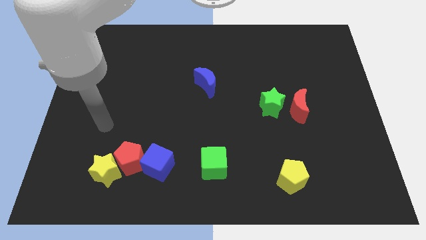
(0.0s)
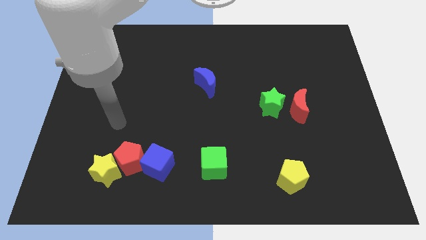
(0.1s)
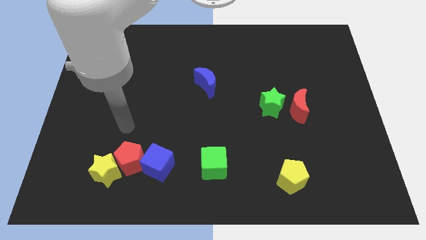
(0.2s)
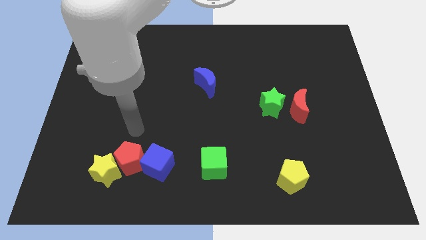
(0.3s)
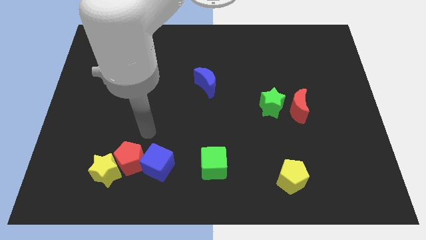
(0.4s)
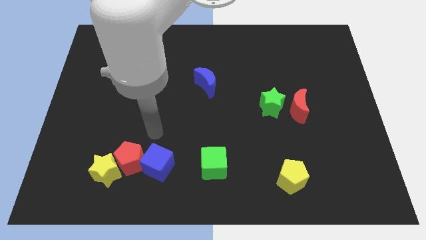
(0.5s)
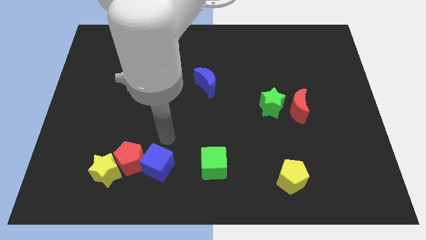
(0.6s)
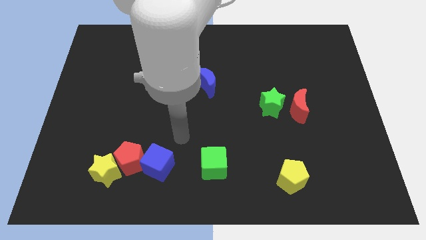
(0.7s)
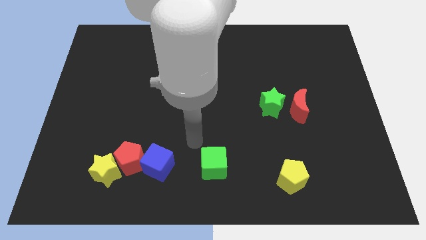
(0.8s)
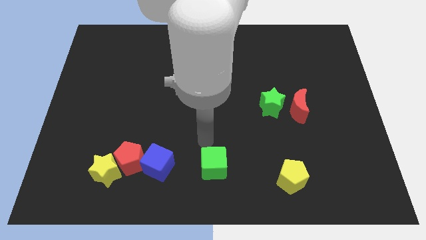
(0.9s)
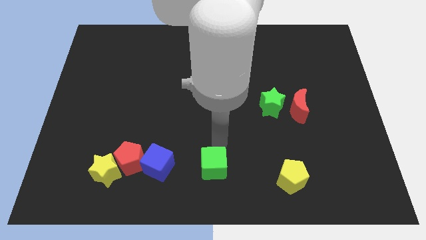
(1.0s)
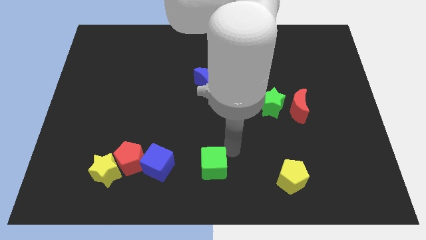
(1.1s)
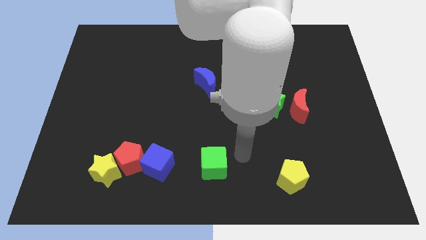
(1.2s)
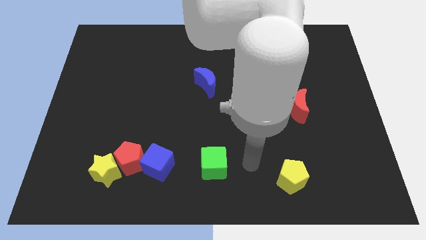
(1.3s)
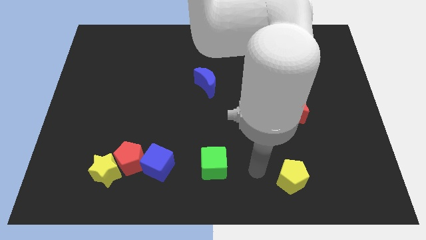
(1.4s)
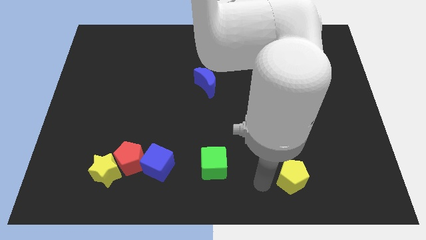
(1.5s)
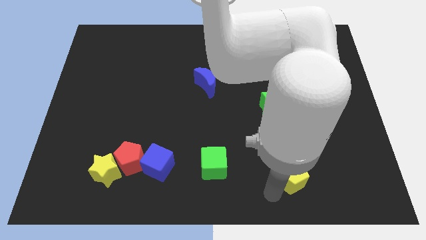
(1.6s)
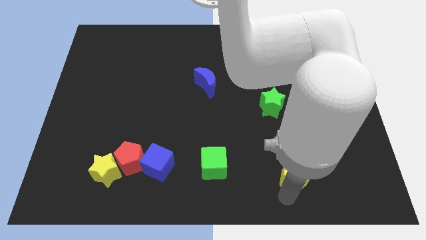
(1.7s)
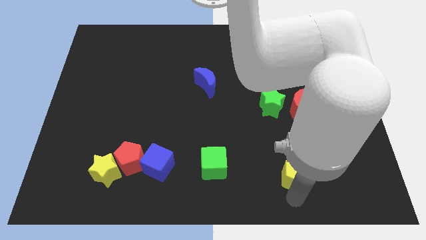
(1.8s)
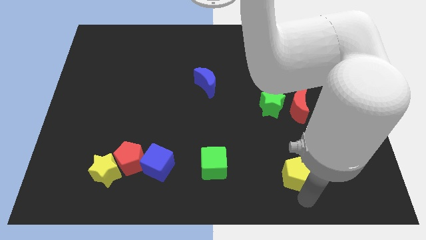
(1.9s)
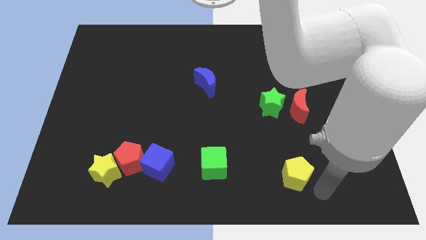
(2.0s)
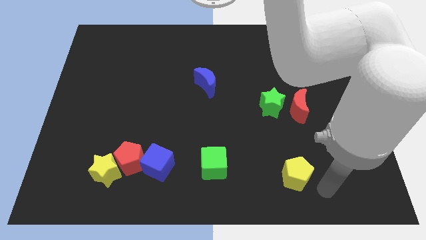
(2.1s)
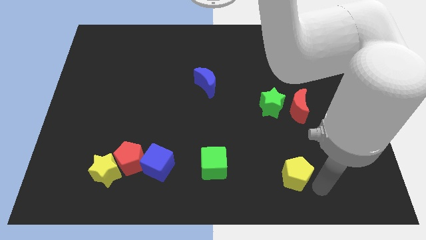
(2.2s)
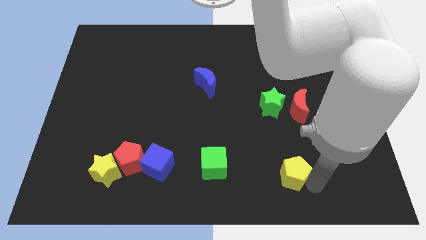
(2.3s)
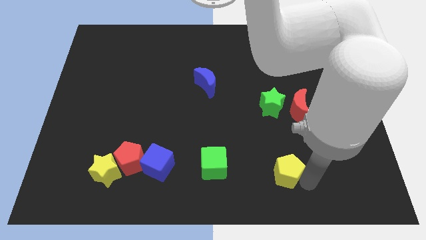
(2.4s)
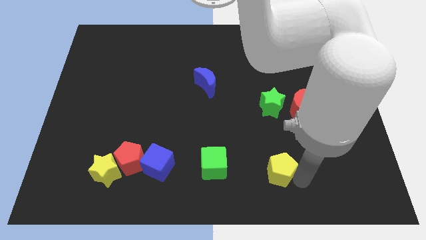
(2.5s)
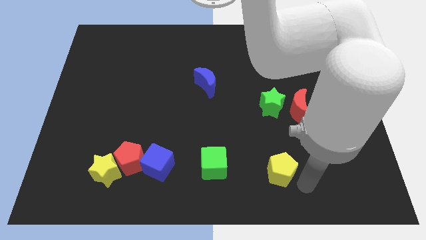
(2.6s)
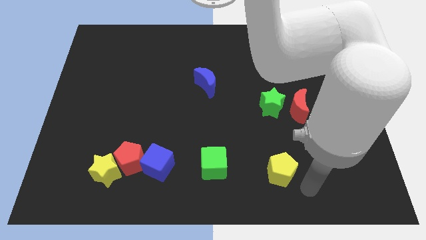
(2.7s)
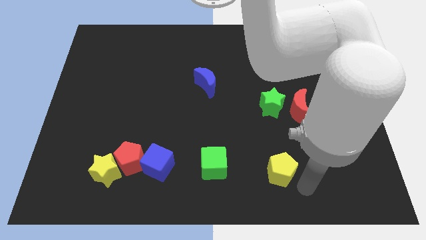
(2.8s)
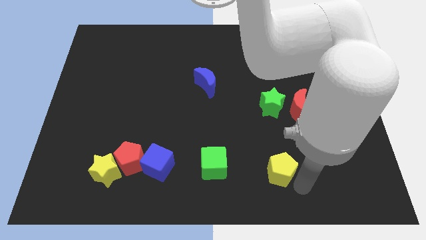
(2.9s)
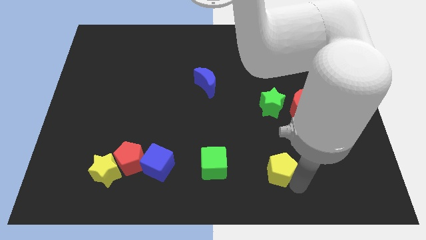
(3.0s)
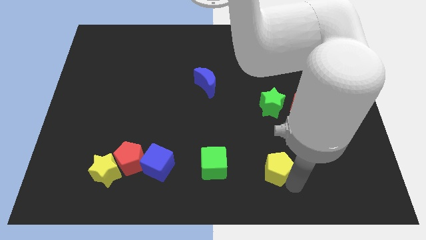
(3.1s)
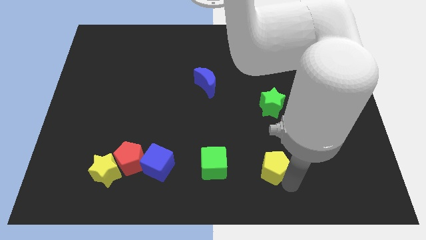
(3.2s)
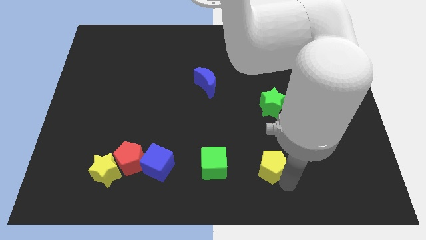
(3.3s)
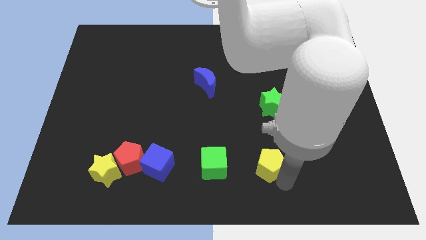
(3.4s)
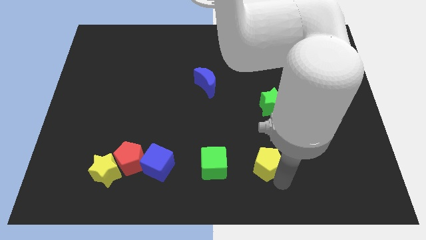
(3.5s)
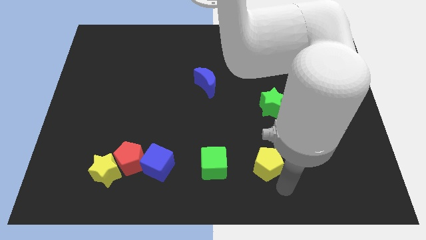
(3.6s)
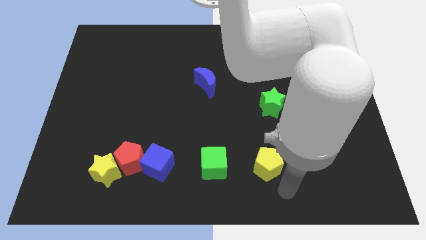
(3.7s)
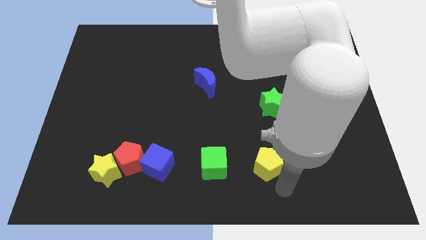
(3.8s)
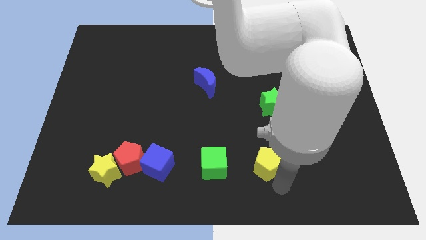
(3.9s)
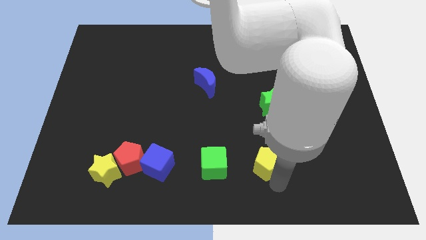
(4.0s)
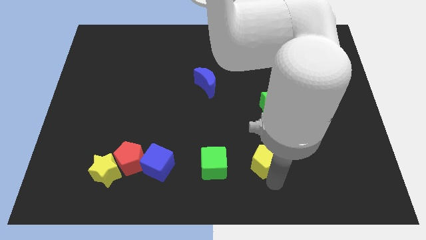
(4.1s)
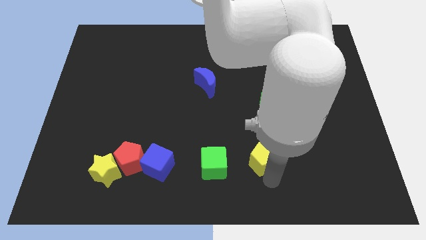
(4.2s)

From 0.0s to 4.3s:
move the yellow pentagon somewhat up and to the left diagonally

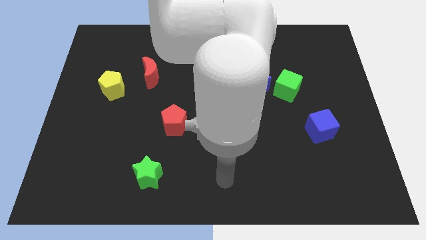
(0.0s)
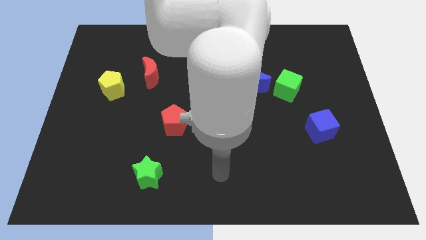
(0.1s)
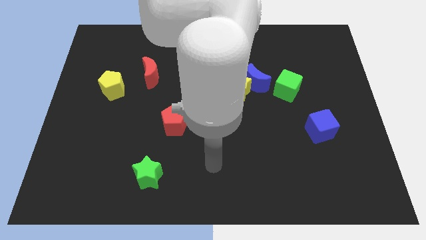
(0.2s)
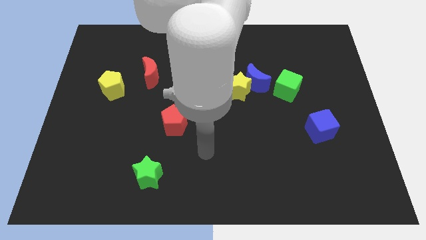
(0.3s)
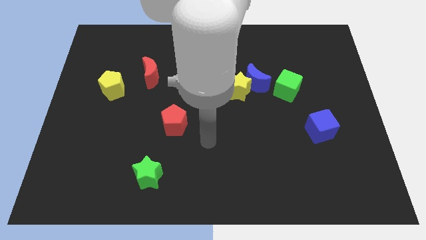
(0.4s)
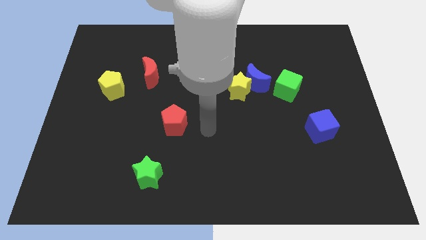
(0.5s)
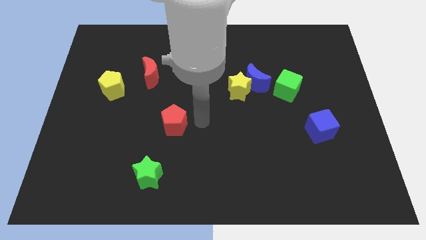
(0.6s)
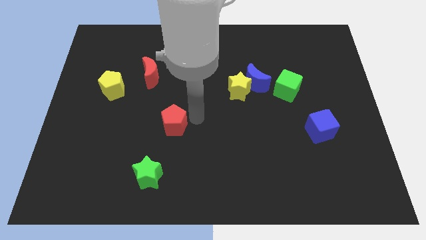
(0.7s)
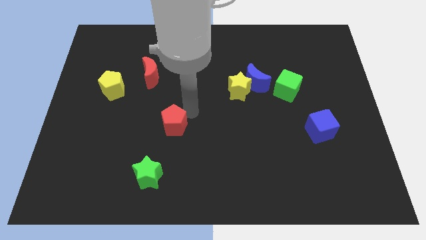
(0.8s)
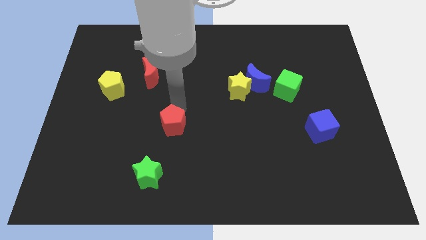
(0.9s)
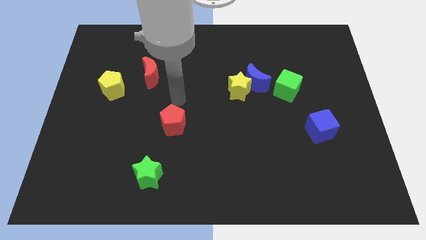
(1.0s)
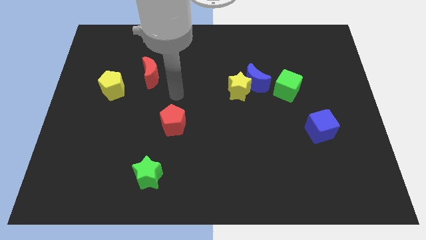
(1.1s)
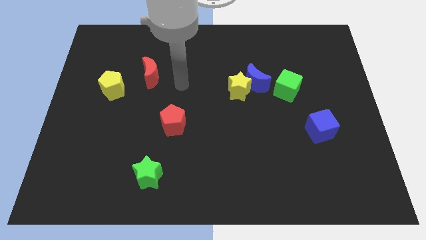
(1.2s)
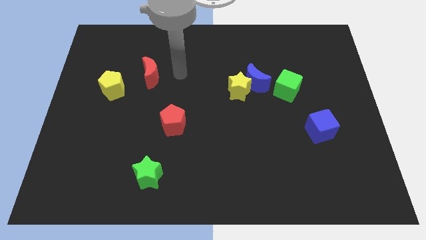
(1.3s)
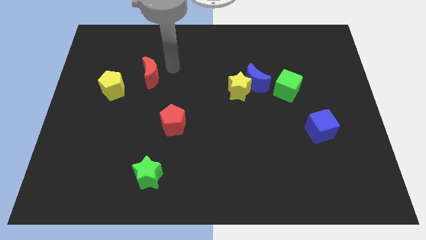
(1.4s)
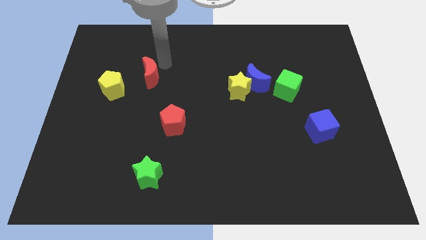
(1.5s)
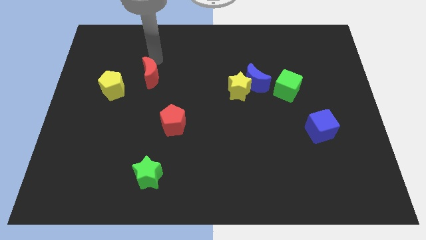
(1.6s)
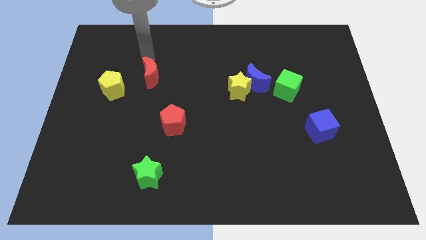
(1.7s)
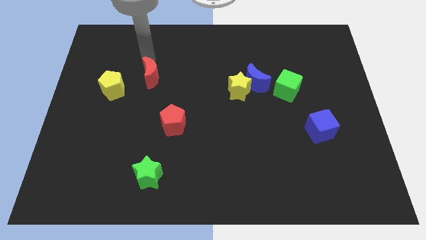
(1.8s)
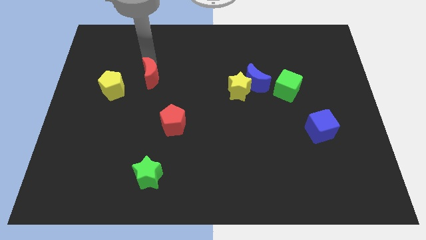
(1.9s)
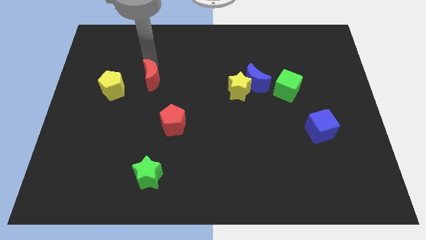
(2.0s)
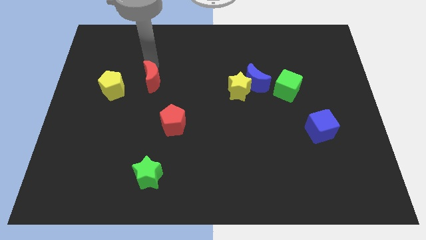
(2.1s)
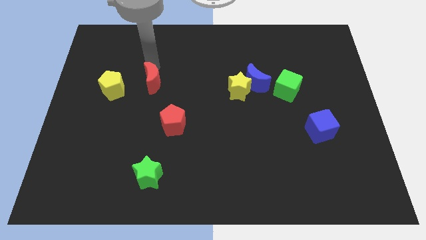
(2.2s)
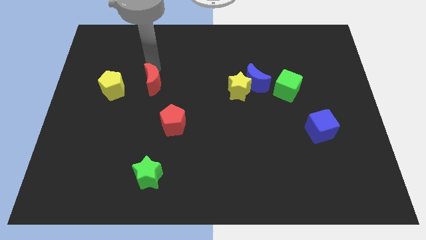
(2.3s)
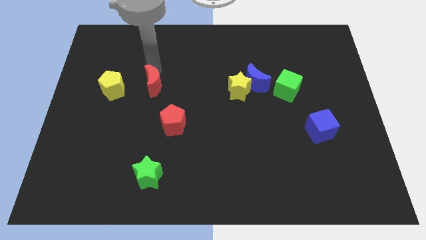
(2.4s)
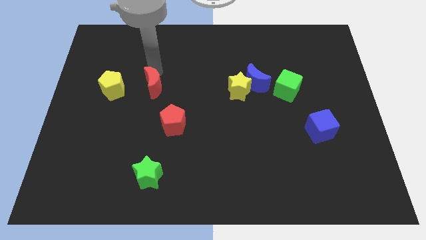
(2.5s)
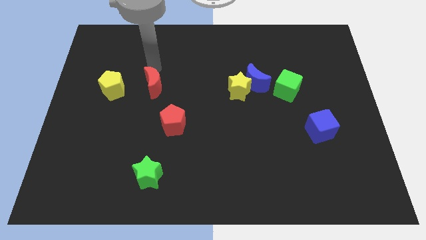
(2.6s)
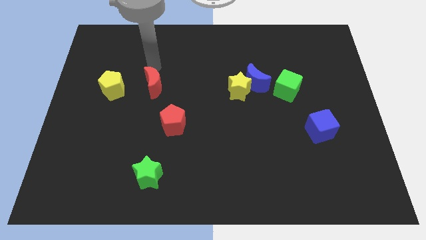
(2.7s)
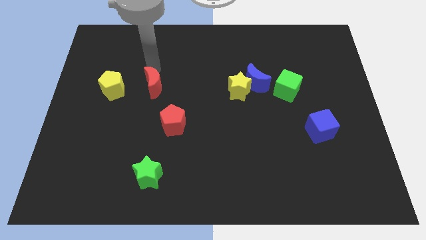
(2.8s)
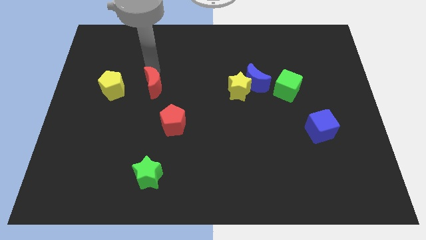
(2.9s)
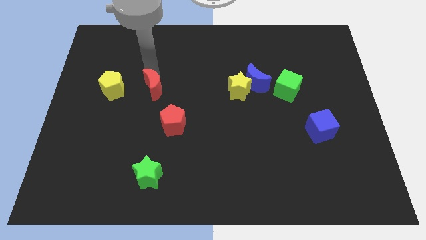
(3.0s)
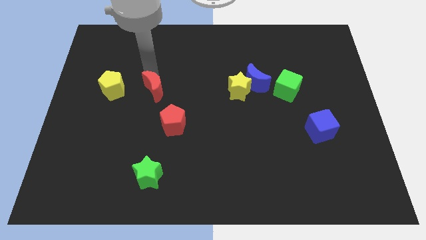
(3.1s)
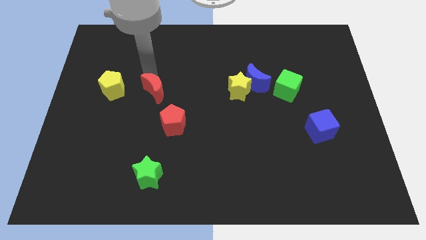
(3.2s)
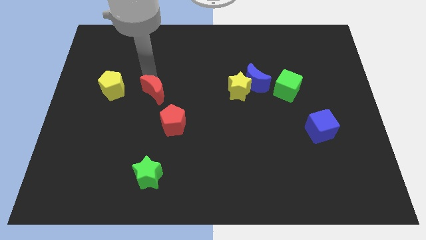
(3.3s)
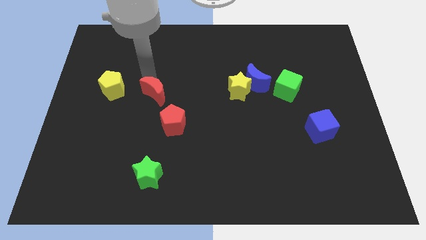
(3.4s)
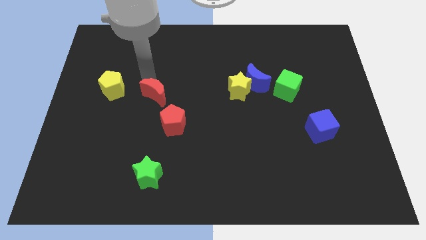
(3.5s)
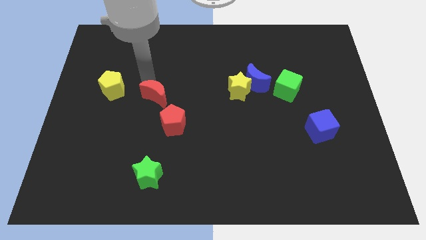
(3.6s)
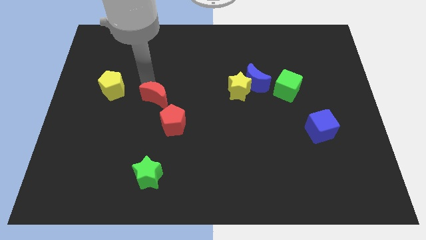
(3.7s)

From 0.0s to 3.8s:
push the red moon somewhat down
